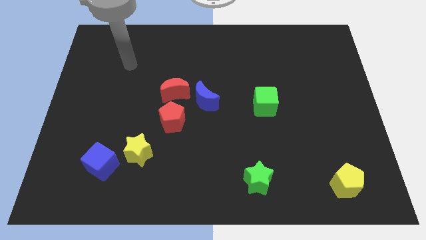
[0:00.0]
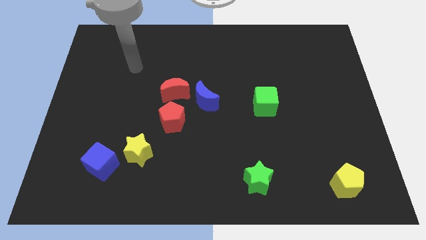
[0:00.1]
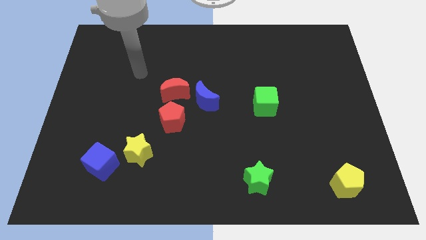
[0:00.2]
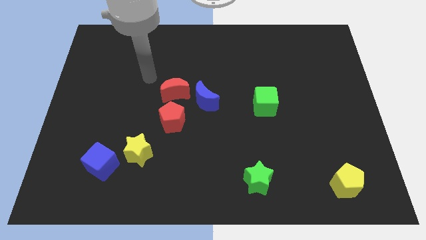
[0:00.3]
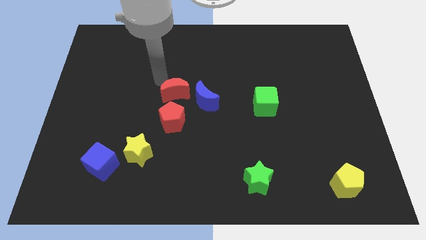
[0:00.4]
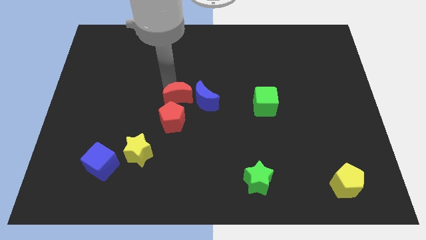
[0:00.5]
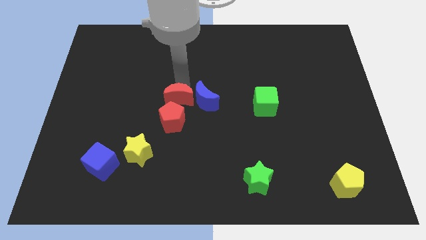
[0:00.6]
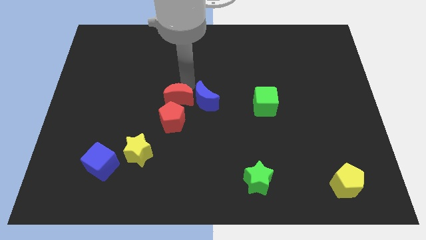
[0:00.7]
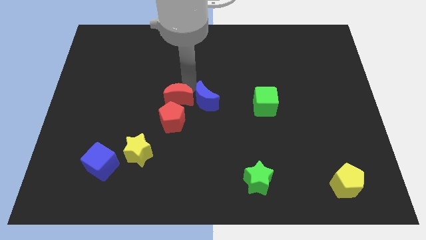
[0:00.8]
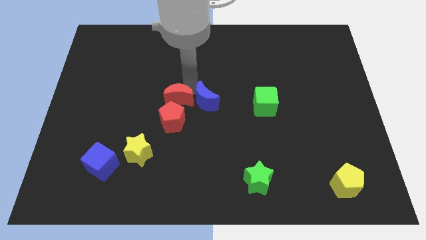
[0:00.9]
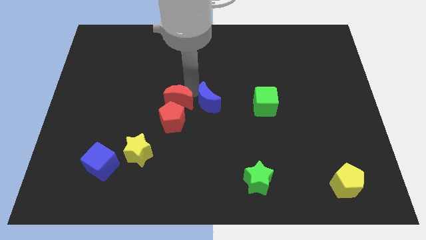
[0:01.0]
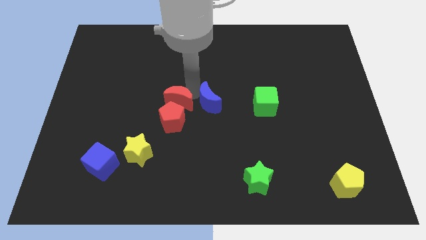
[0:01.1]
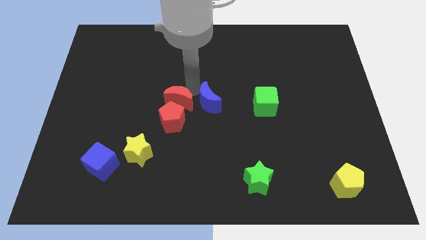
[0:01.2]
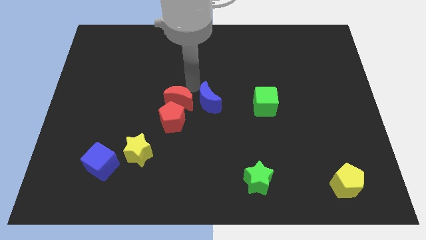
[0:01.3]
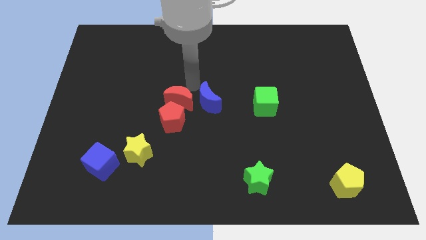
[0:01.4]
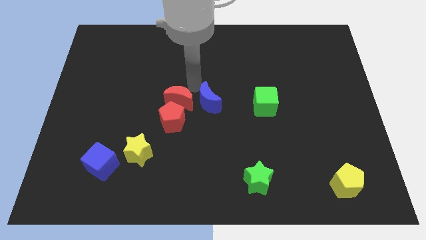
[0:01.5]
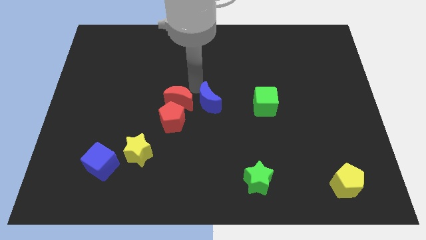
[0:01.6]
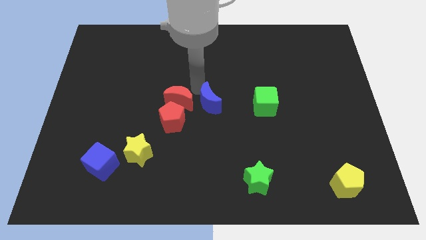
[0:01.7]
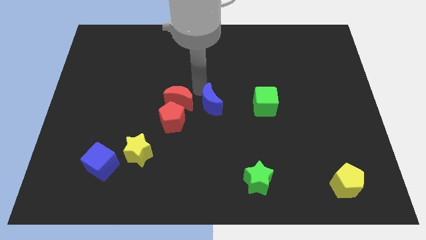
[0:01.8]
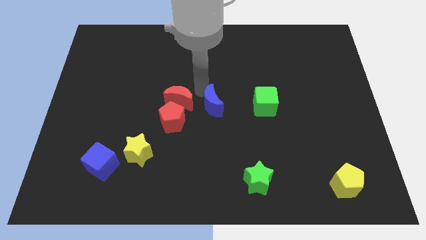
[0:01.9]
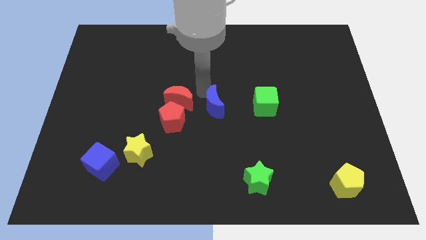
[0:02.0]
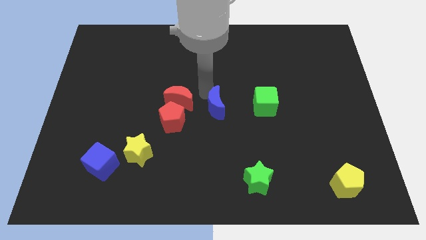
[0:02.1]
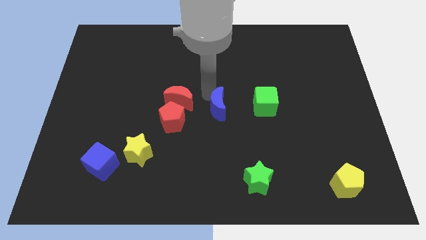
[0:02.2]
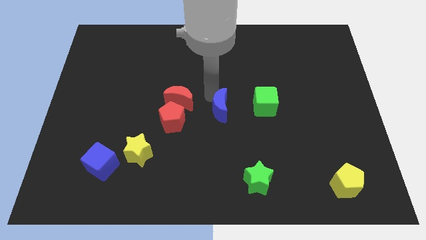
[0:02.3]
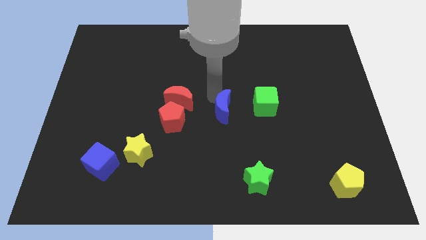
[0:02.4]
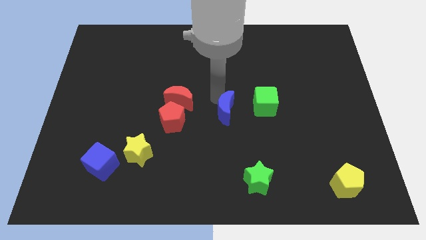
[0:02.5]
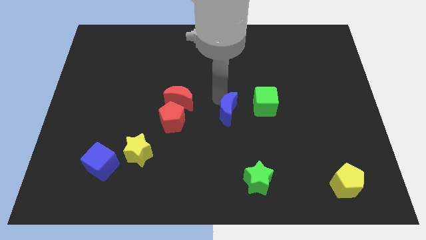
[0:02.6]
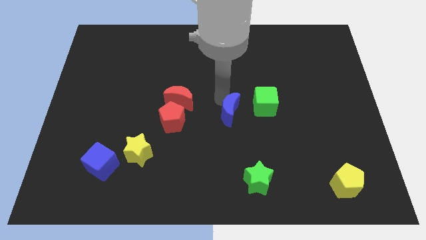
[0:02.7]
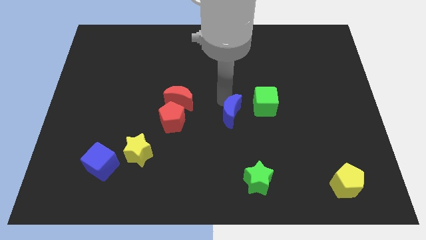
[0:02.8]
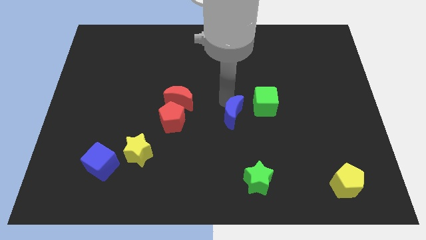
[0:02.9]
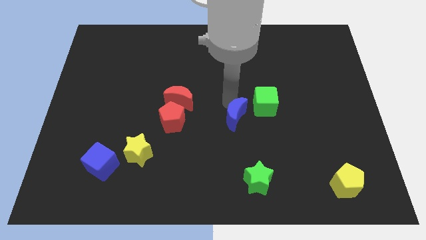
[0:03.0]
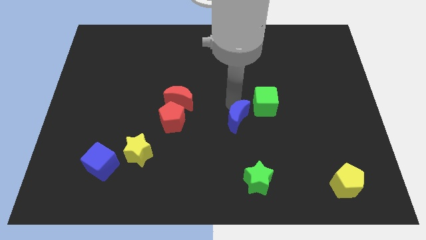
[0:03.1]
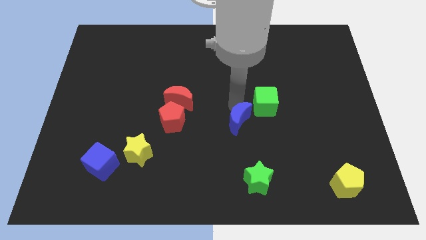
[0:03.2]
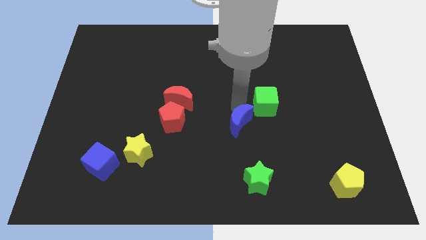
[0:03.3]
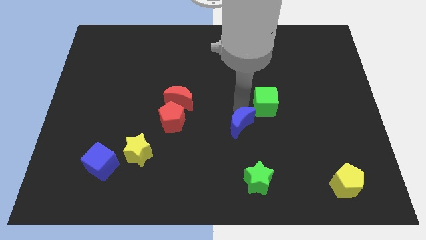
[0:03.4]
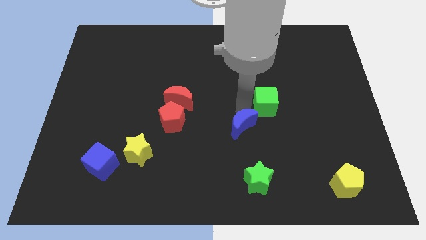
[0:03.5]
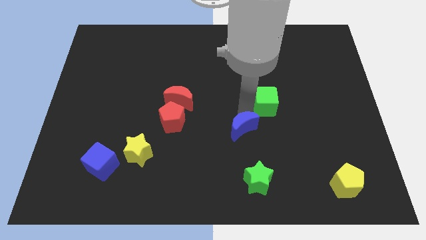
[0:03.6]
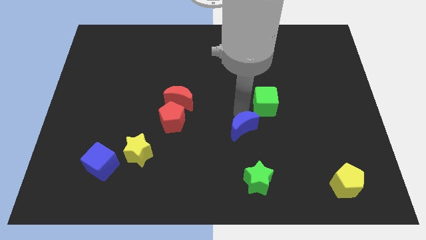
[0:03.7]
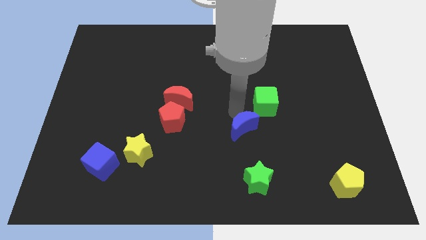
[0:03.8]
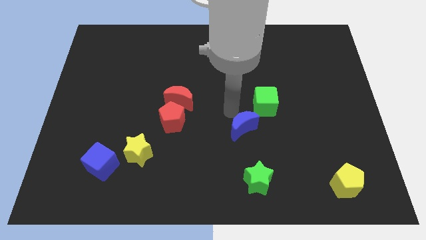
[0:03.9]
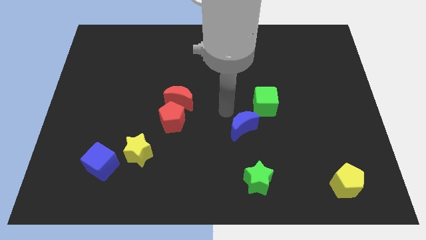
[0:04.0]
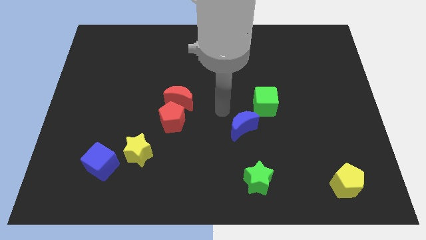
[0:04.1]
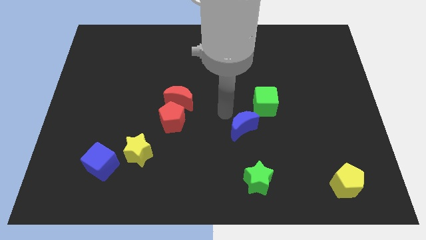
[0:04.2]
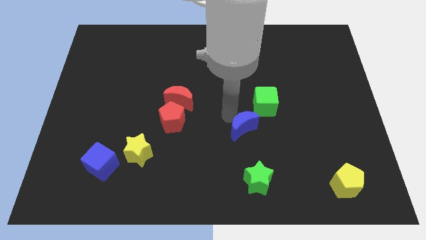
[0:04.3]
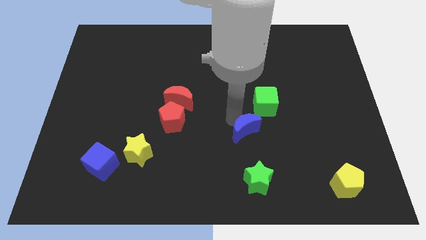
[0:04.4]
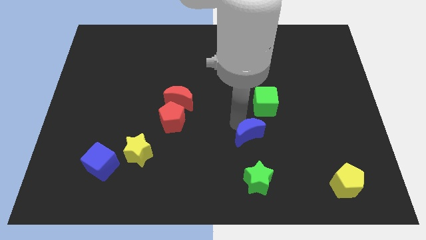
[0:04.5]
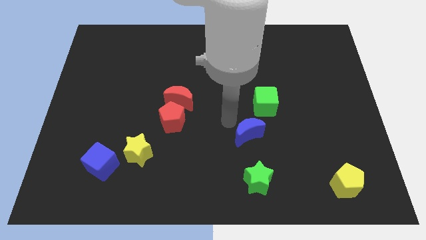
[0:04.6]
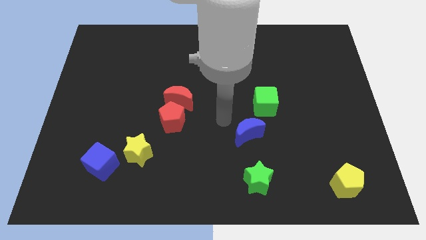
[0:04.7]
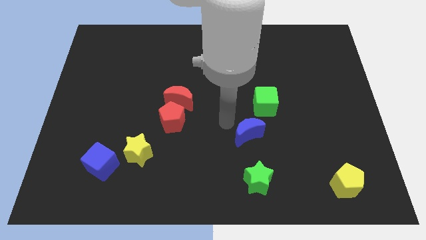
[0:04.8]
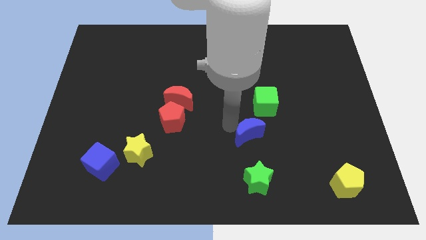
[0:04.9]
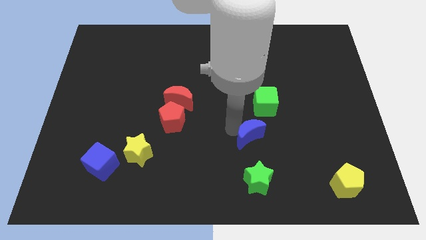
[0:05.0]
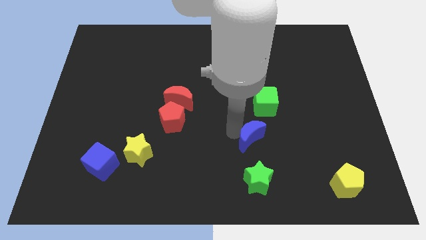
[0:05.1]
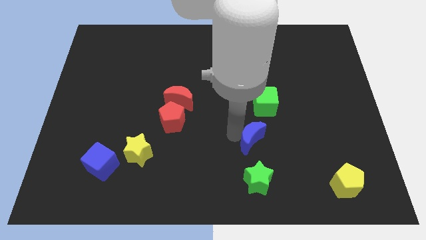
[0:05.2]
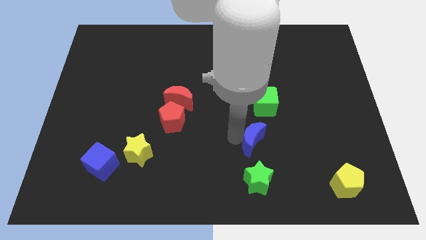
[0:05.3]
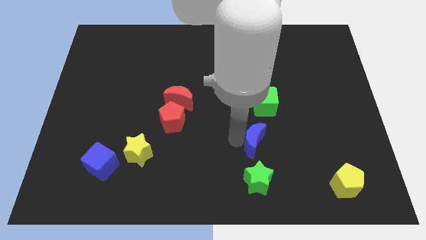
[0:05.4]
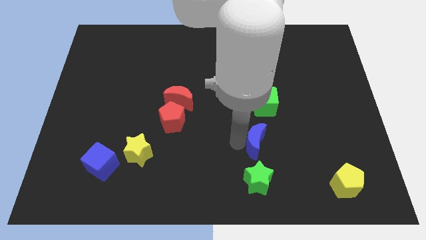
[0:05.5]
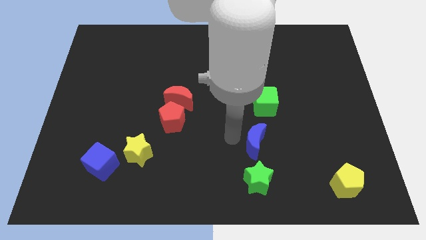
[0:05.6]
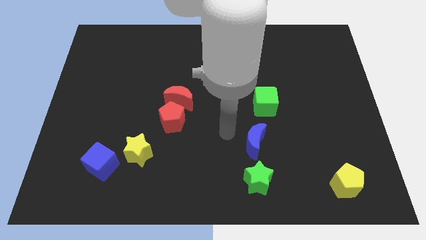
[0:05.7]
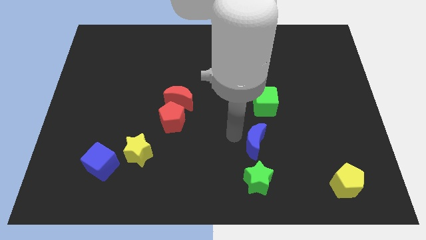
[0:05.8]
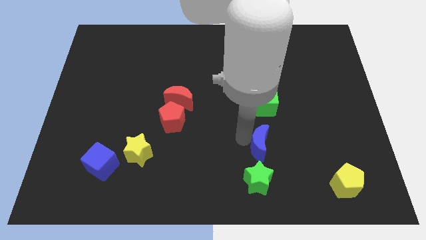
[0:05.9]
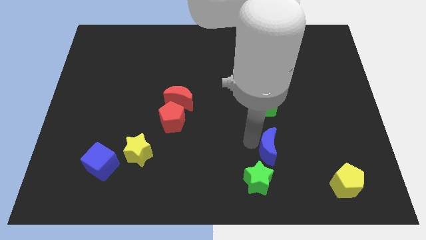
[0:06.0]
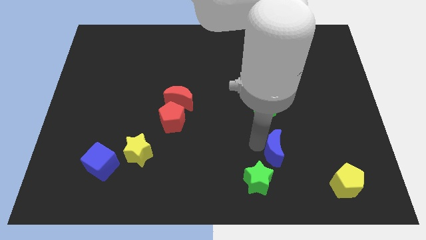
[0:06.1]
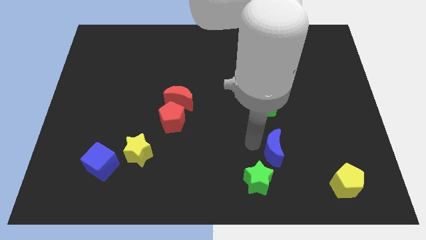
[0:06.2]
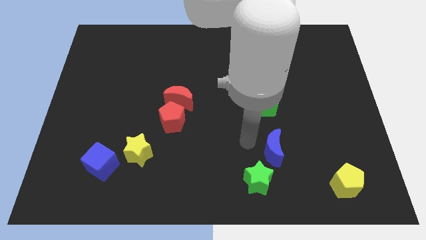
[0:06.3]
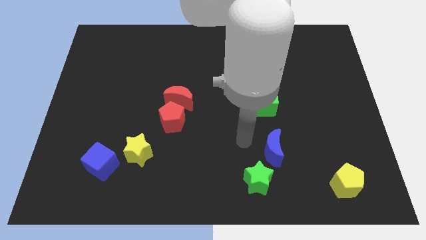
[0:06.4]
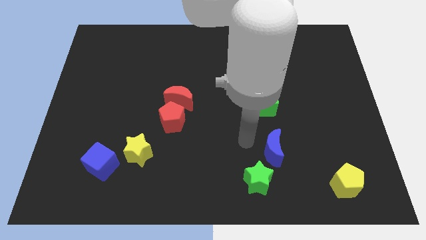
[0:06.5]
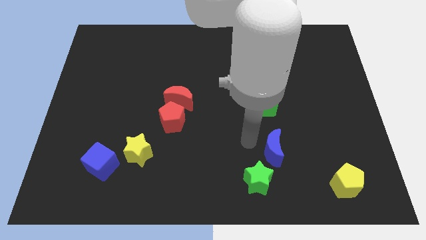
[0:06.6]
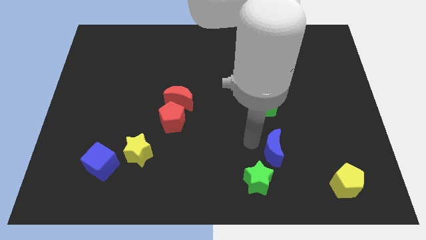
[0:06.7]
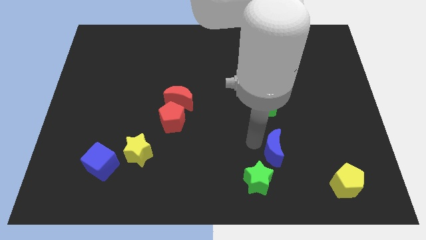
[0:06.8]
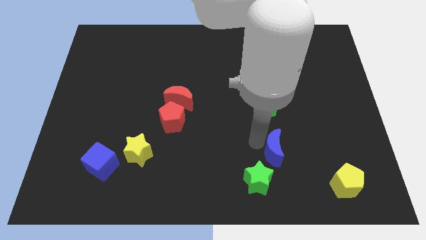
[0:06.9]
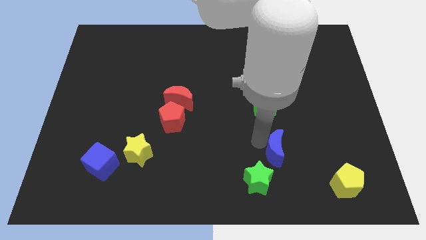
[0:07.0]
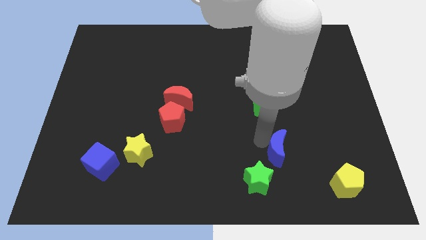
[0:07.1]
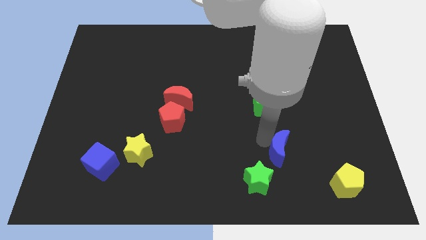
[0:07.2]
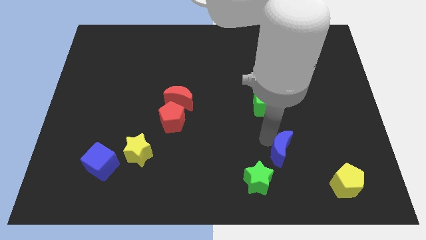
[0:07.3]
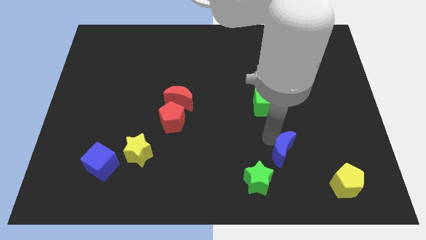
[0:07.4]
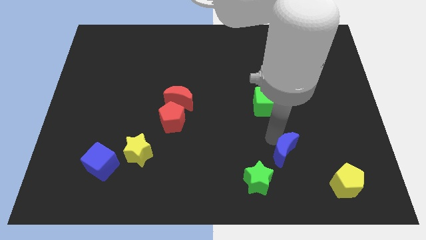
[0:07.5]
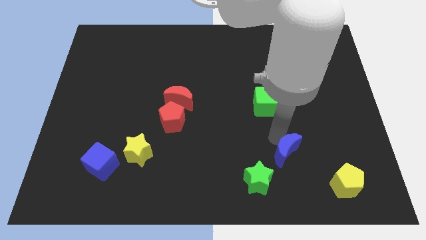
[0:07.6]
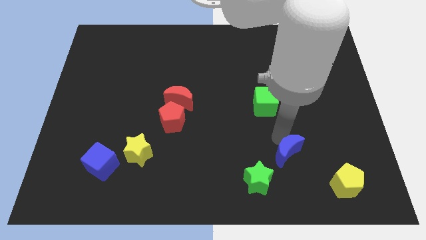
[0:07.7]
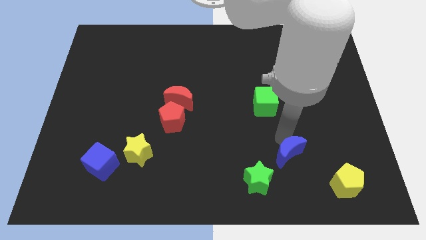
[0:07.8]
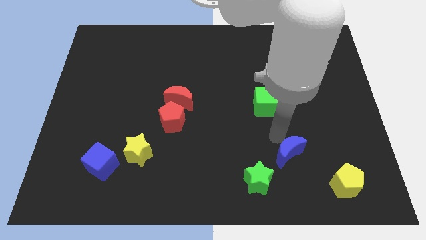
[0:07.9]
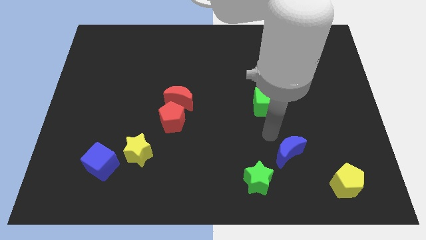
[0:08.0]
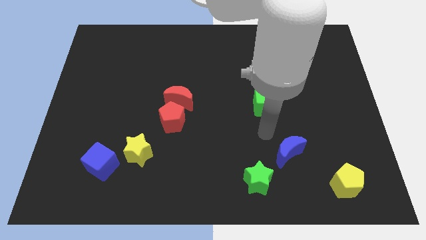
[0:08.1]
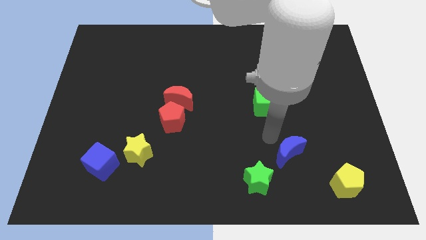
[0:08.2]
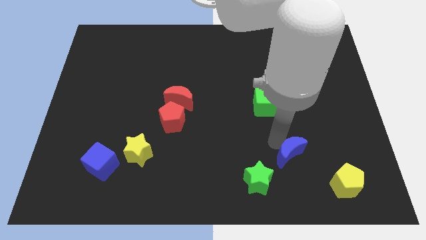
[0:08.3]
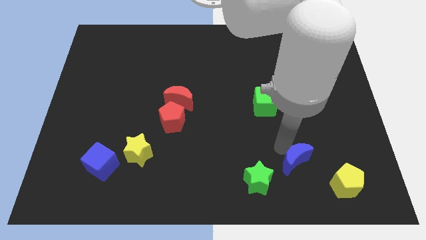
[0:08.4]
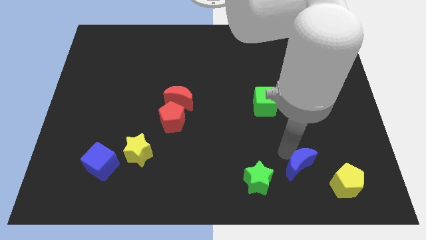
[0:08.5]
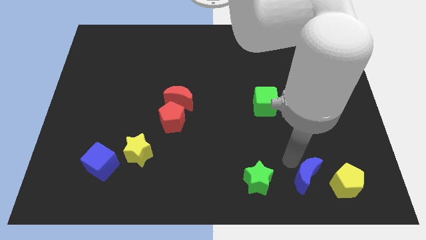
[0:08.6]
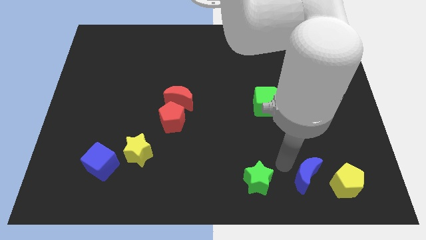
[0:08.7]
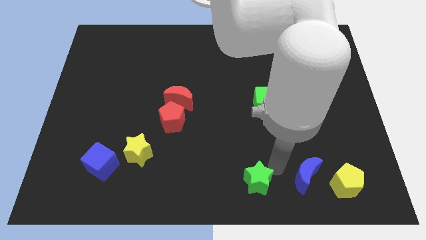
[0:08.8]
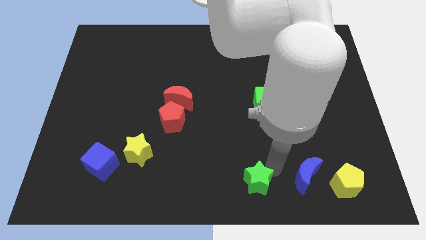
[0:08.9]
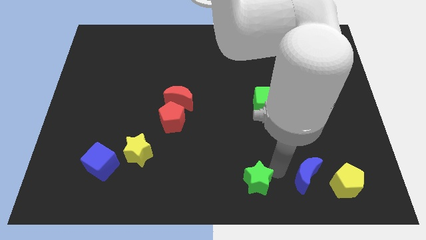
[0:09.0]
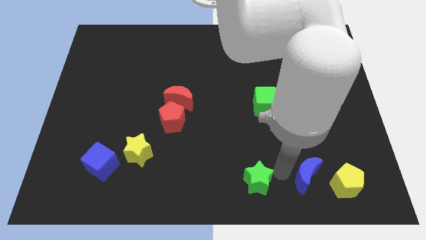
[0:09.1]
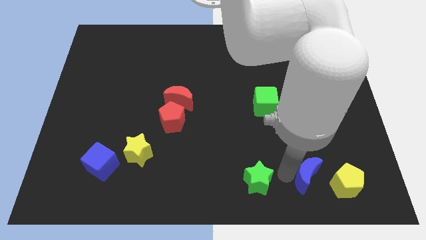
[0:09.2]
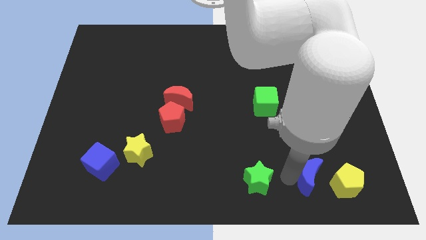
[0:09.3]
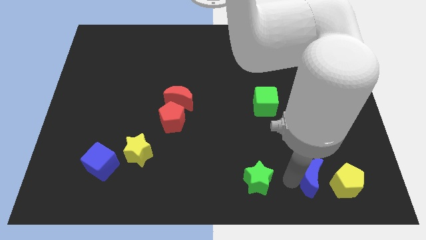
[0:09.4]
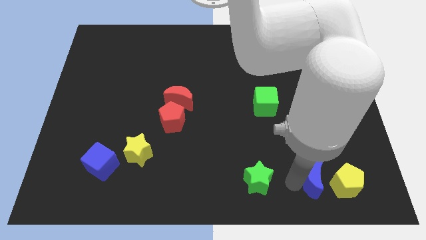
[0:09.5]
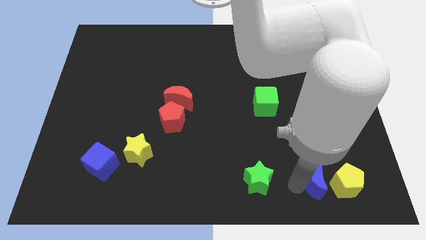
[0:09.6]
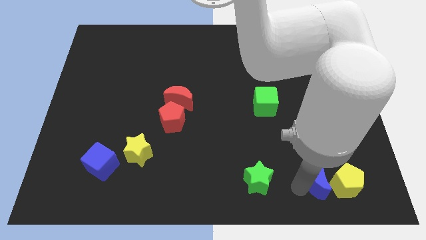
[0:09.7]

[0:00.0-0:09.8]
move the blue moon close to the yellow pentagon
